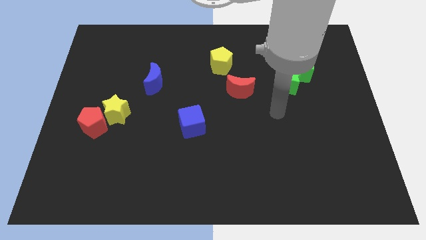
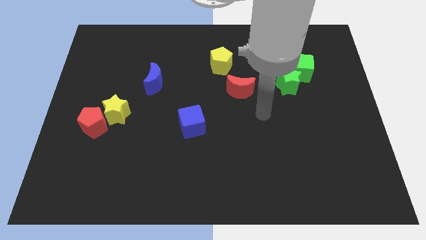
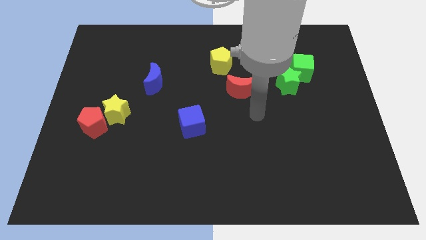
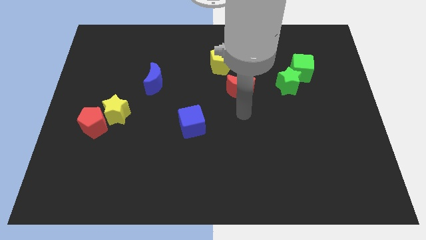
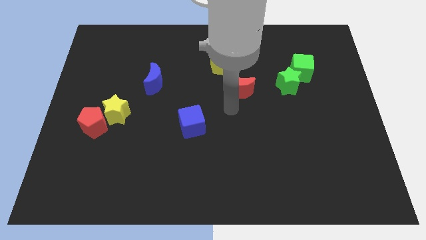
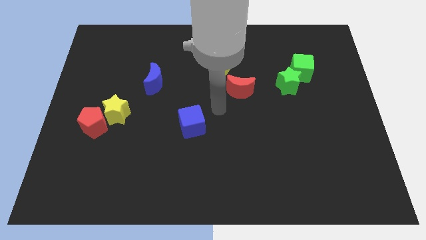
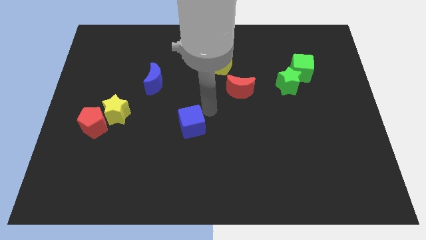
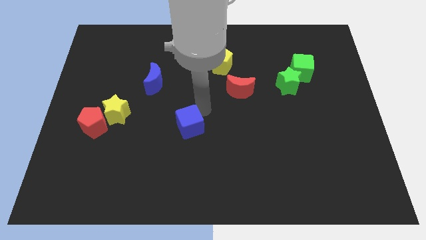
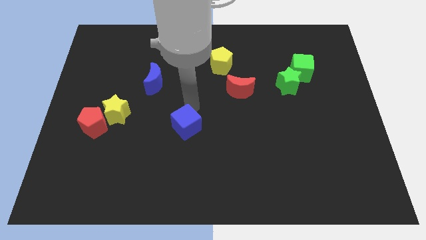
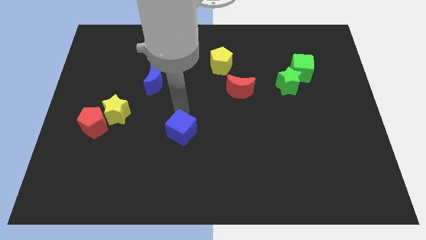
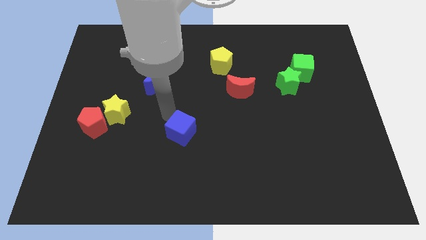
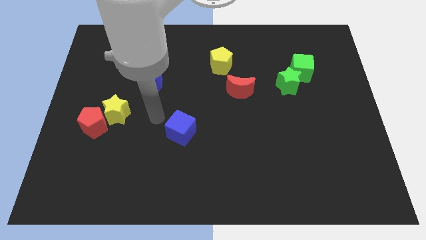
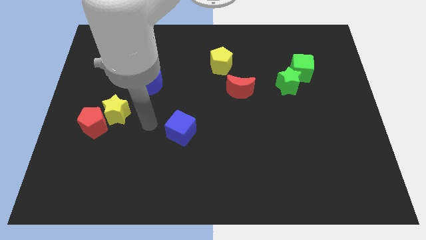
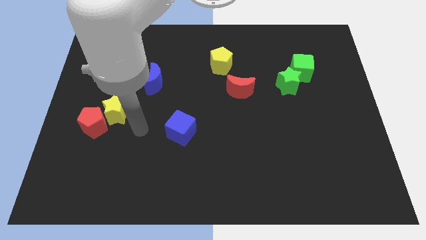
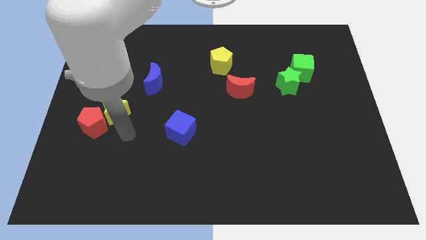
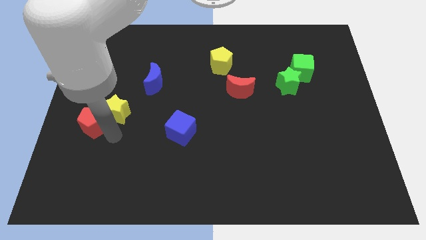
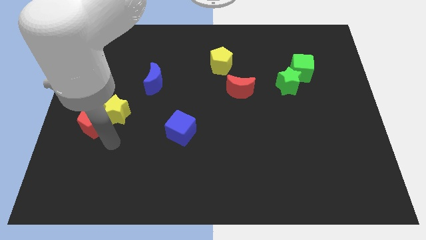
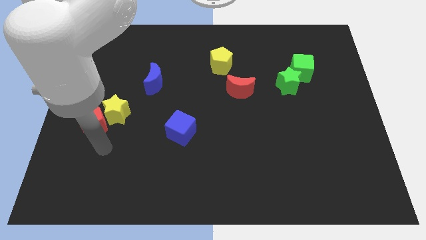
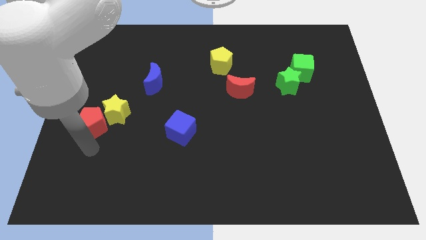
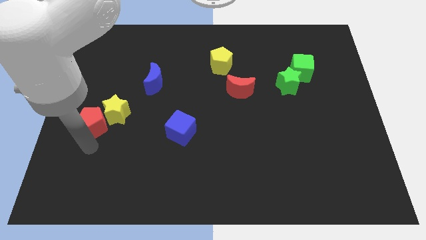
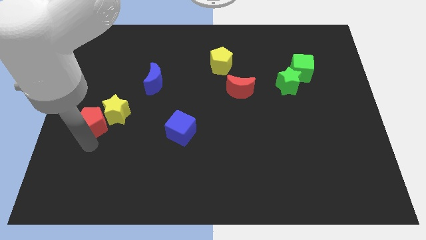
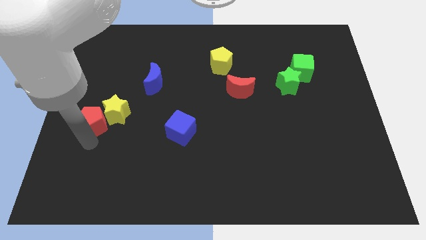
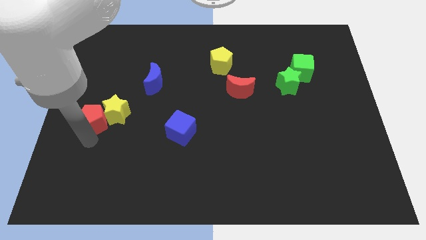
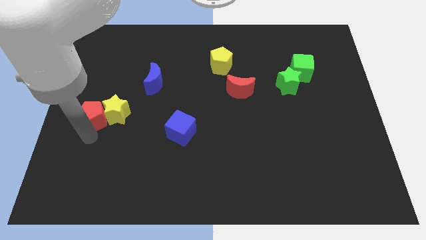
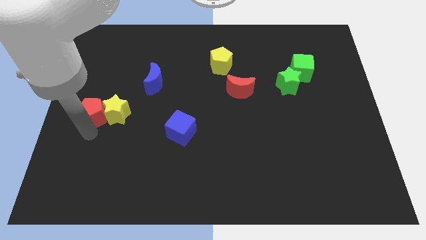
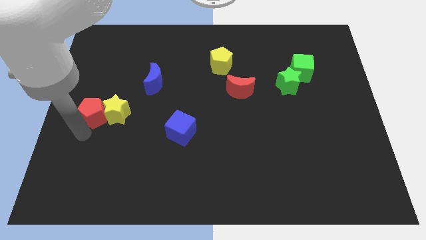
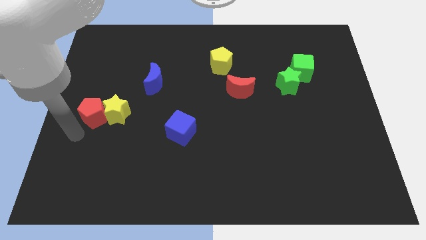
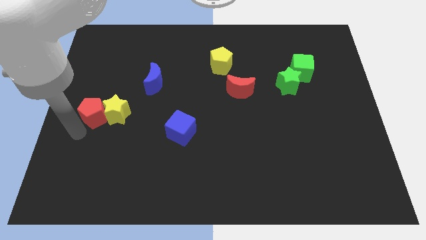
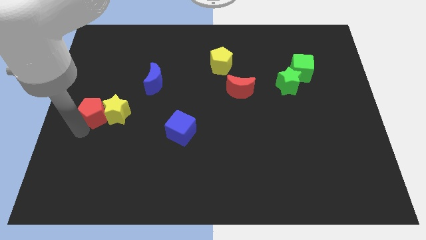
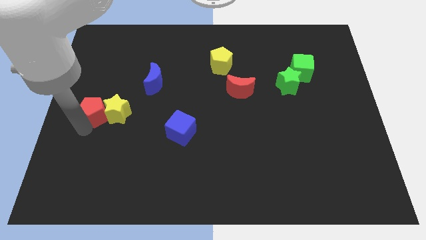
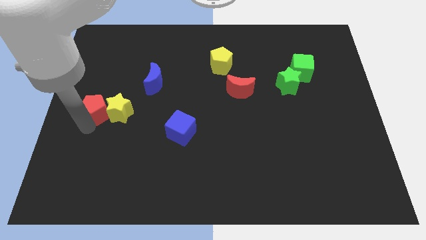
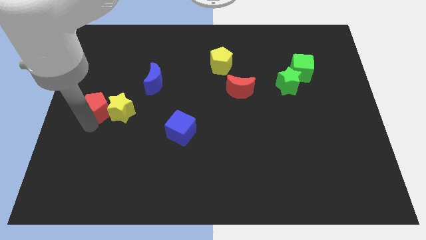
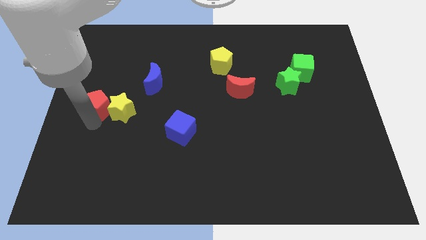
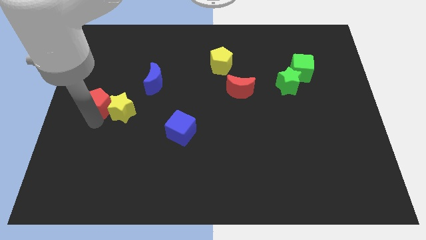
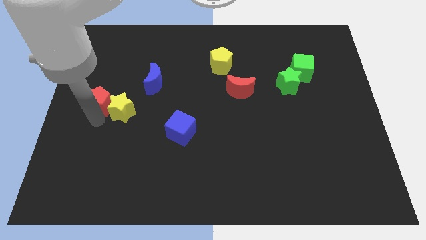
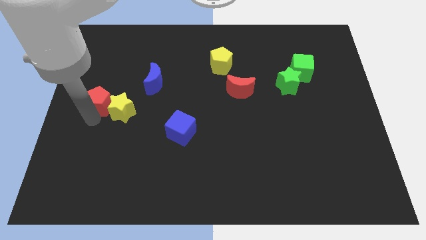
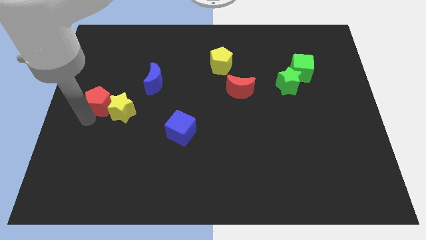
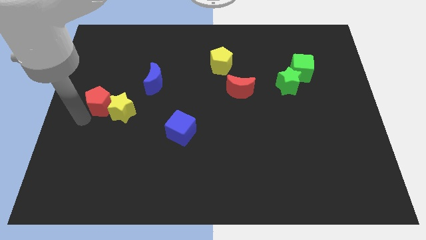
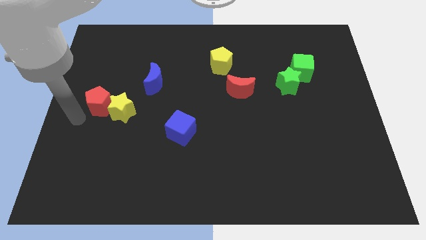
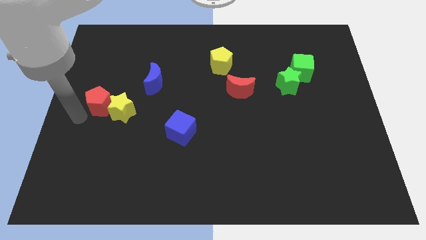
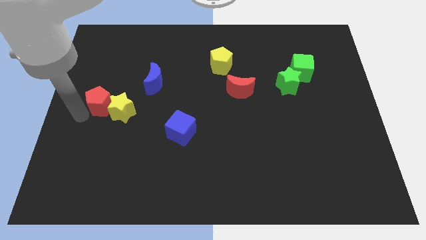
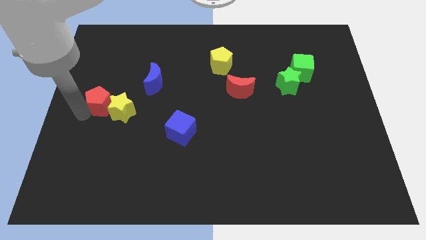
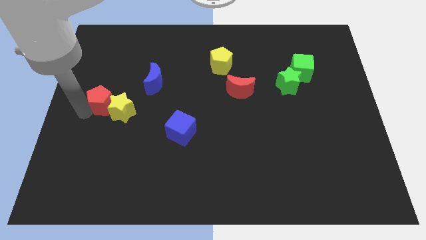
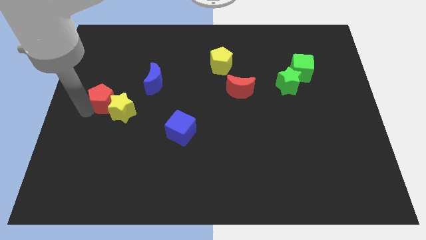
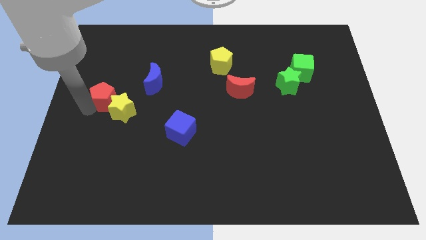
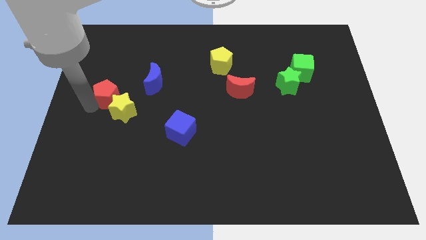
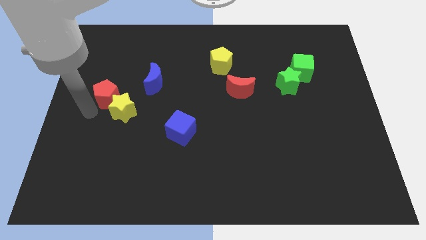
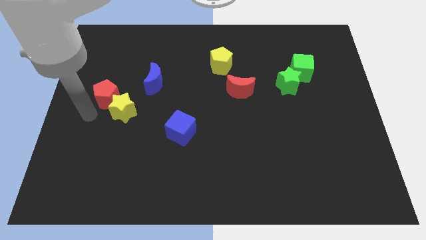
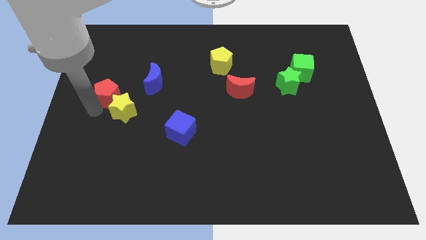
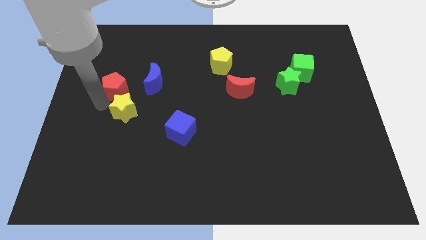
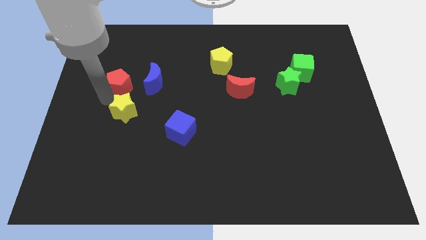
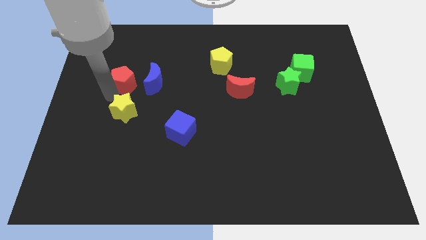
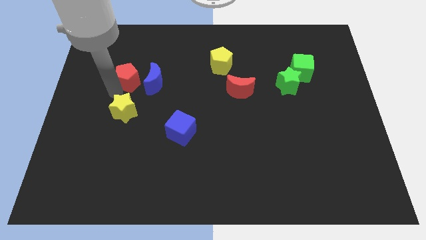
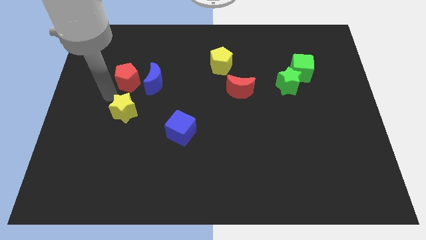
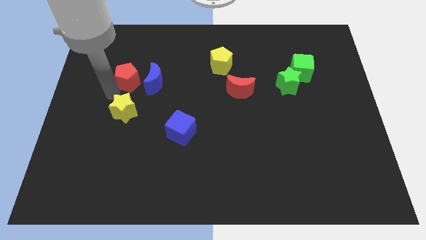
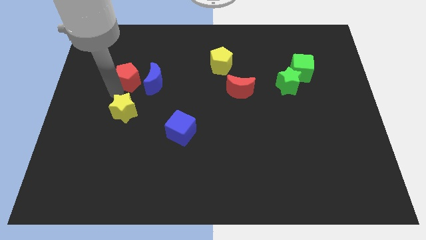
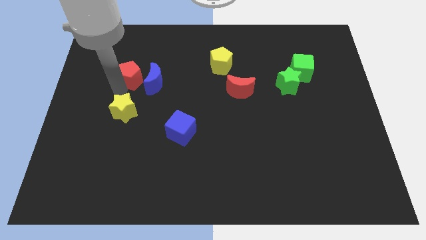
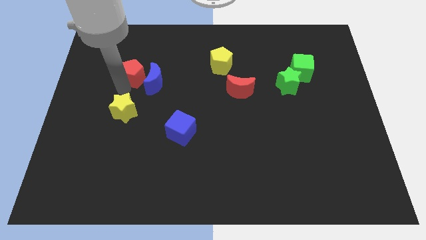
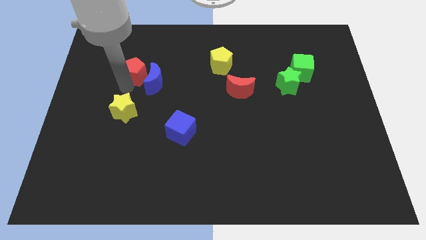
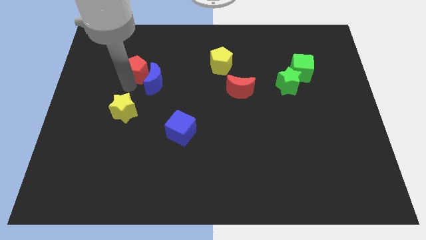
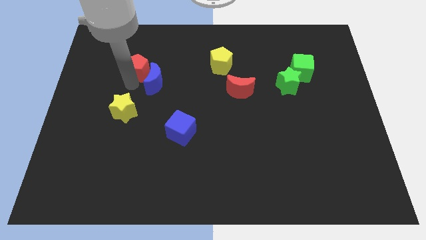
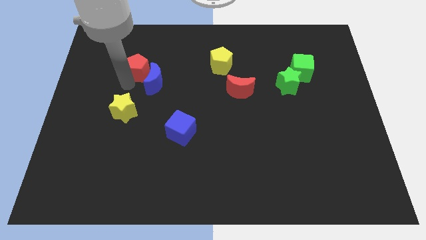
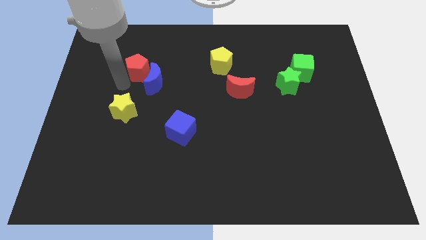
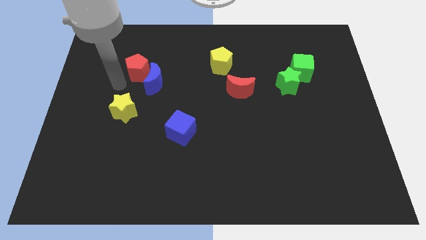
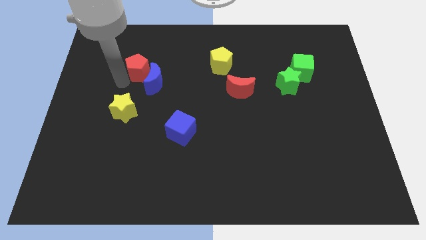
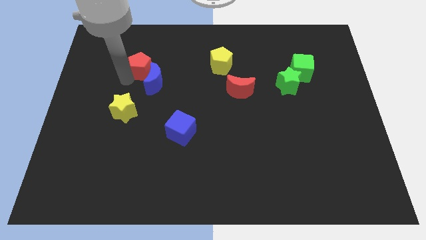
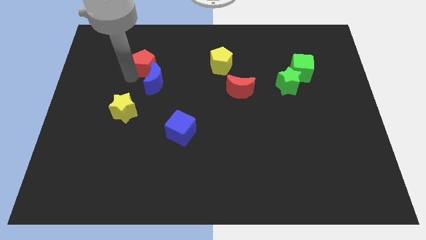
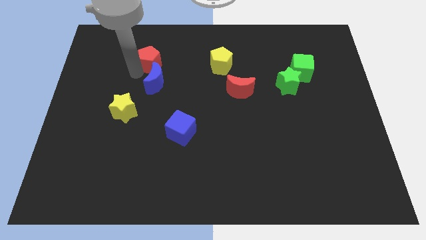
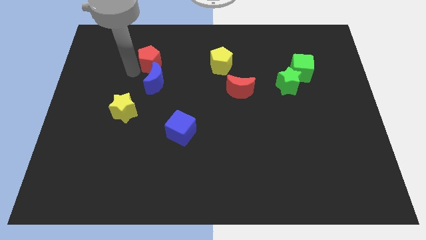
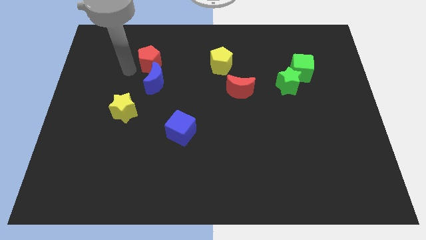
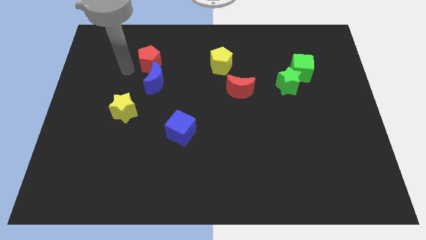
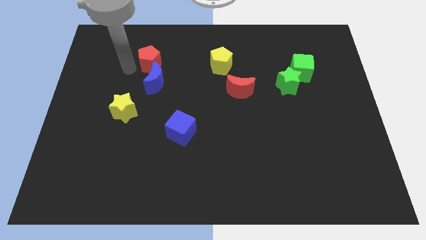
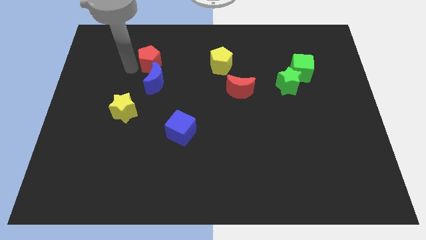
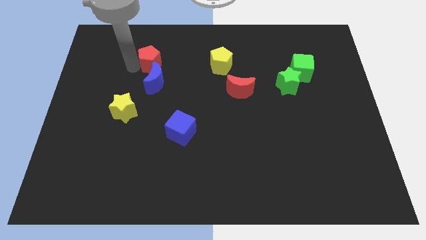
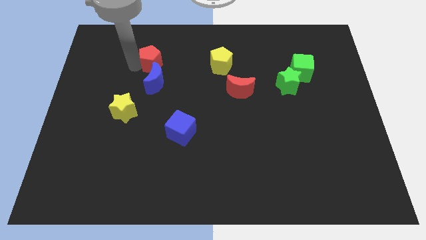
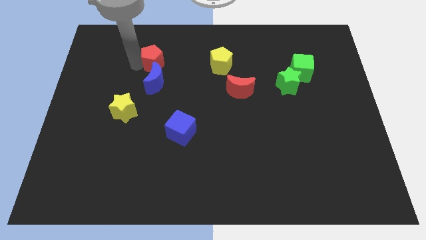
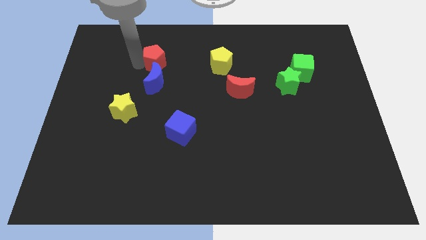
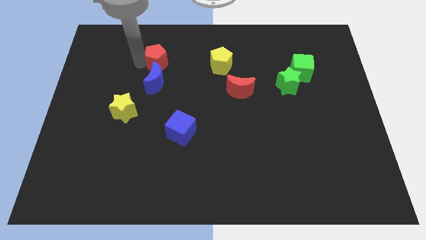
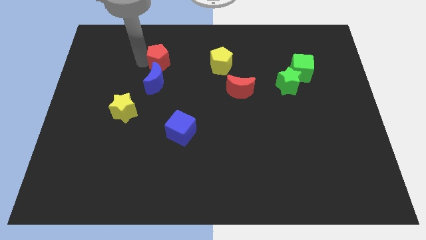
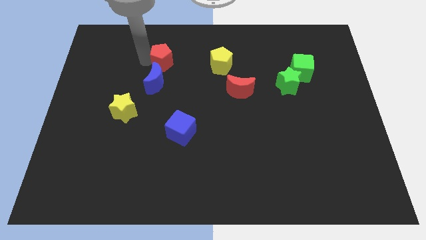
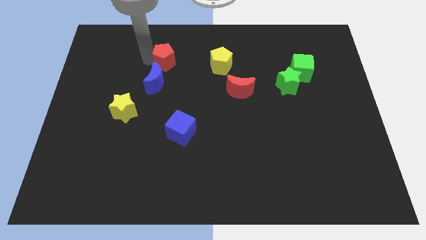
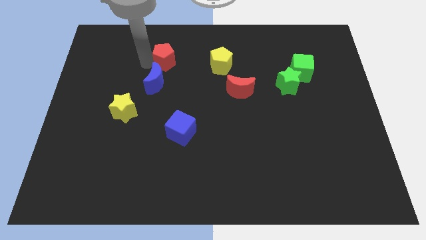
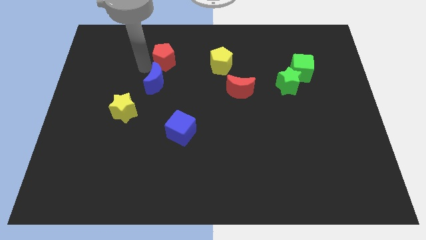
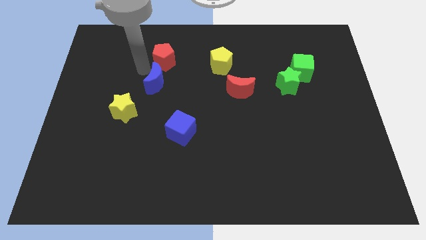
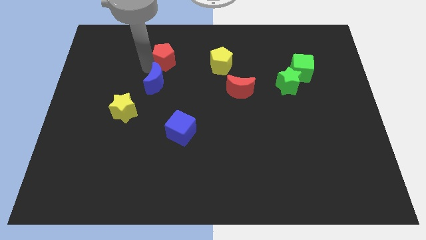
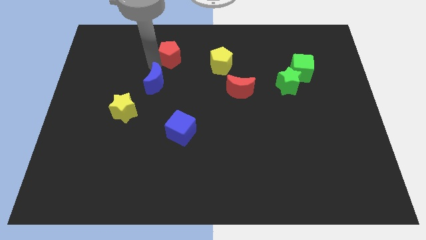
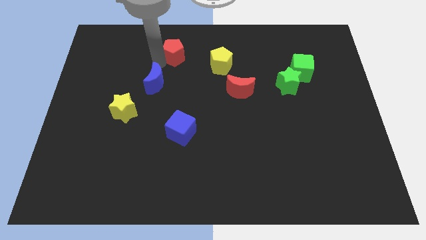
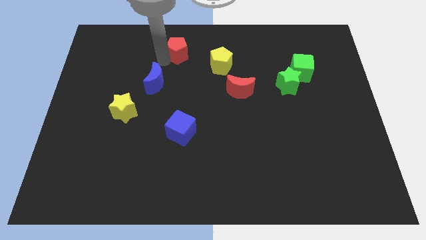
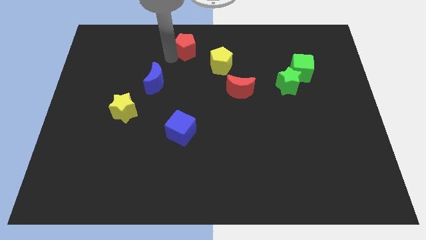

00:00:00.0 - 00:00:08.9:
push the red pentagon to the top side
